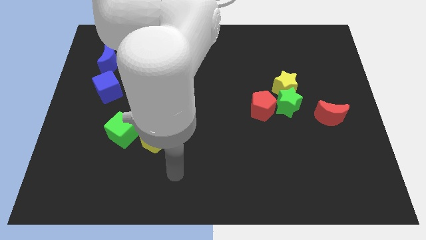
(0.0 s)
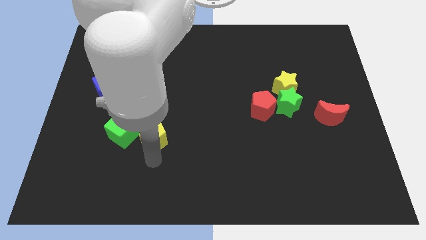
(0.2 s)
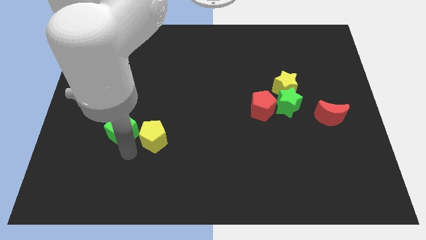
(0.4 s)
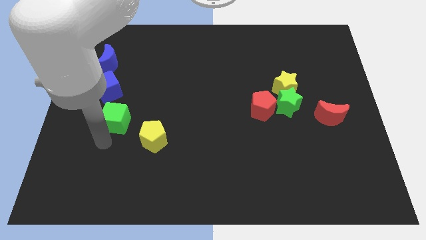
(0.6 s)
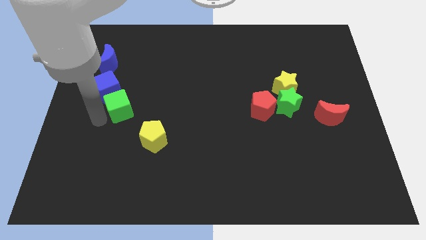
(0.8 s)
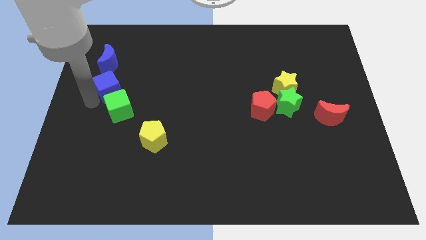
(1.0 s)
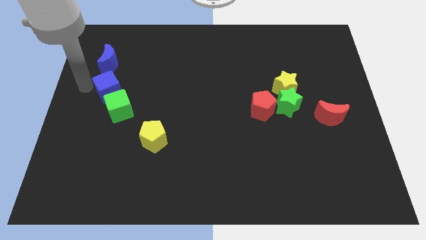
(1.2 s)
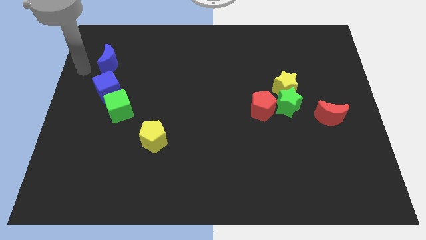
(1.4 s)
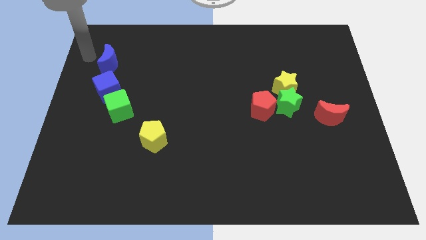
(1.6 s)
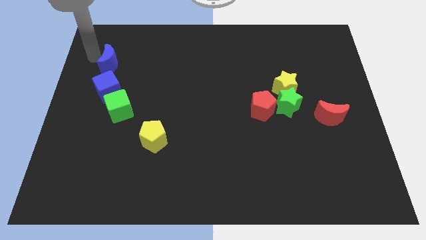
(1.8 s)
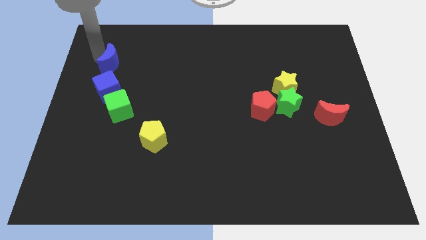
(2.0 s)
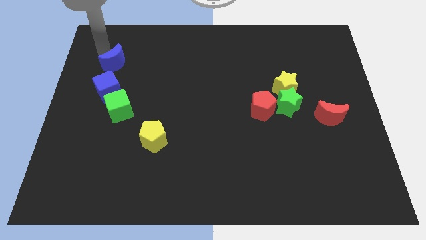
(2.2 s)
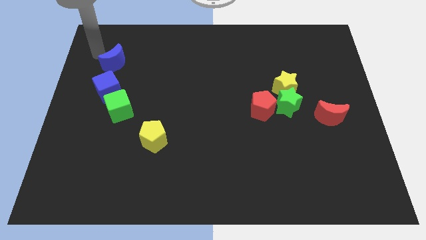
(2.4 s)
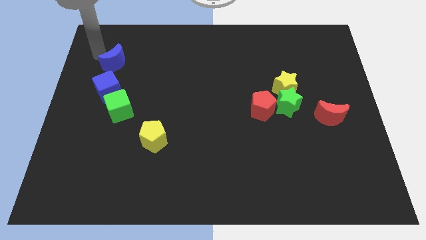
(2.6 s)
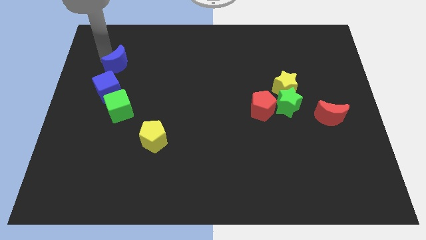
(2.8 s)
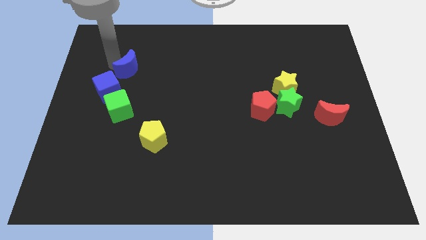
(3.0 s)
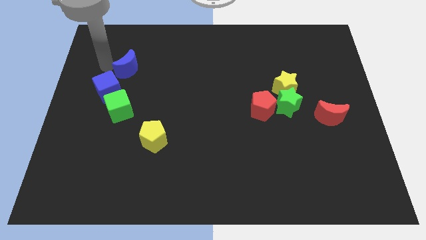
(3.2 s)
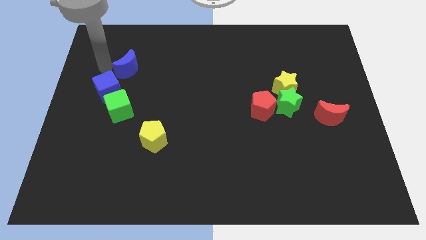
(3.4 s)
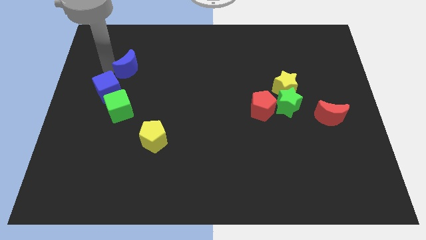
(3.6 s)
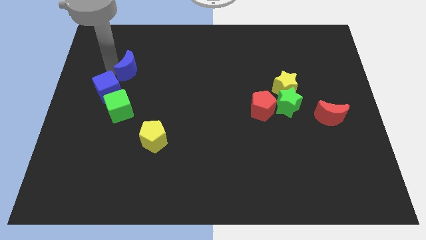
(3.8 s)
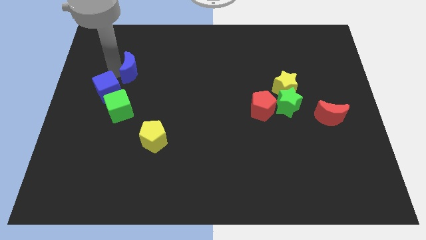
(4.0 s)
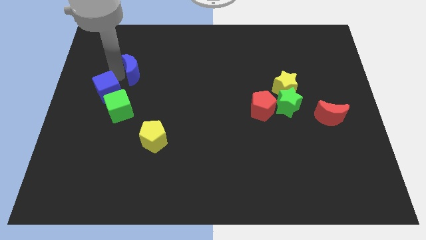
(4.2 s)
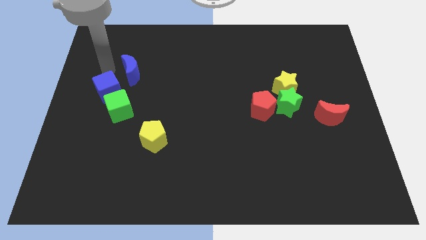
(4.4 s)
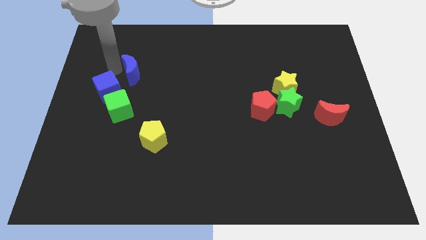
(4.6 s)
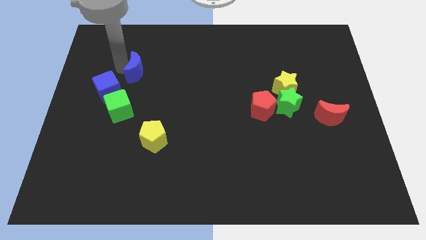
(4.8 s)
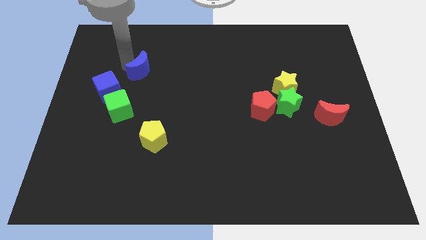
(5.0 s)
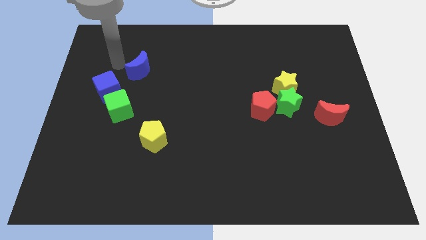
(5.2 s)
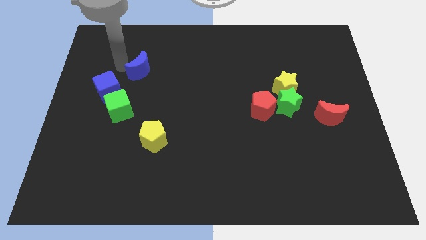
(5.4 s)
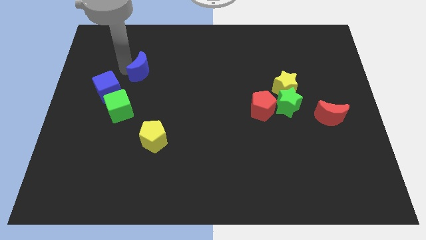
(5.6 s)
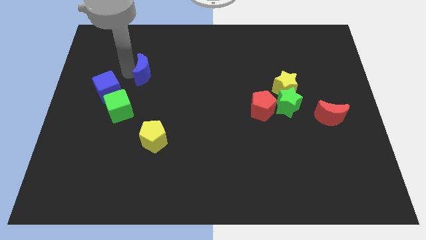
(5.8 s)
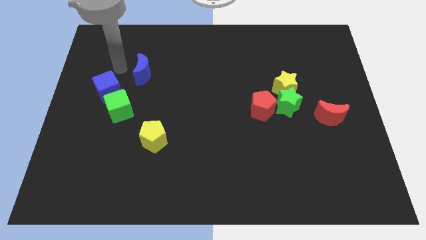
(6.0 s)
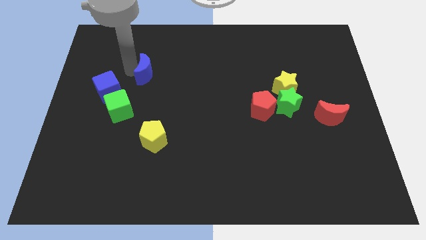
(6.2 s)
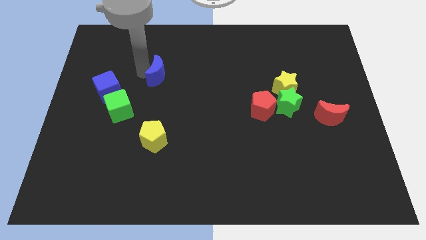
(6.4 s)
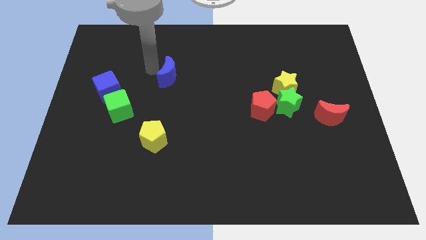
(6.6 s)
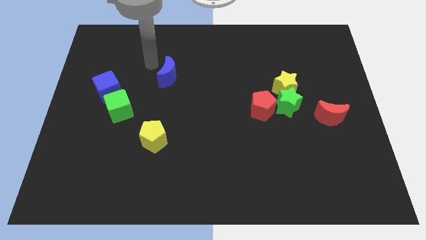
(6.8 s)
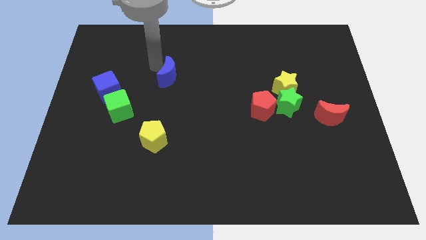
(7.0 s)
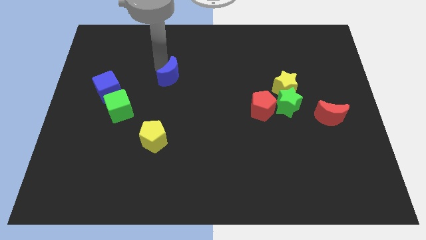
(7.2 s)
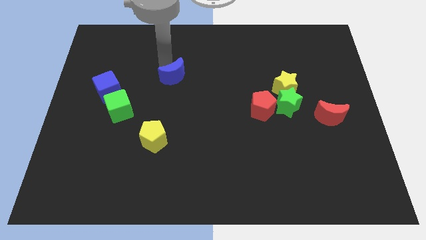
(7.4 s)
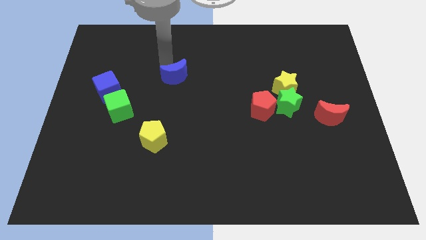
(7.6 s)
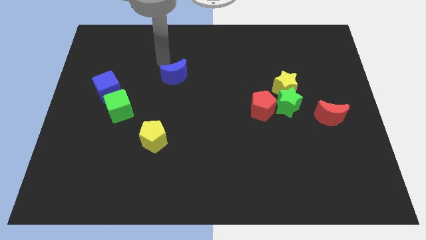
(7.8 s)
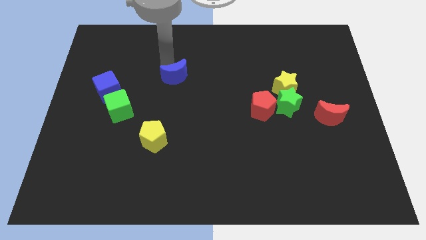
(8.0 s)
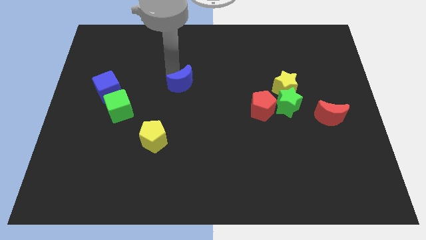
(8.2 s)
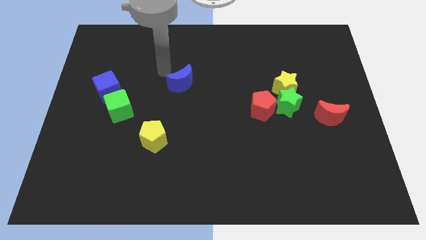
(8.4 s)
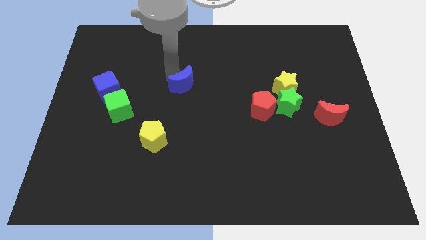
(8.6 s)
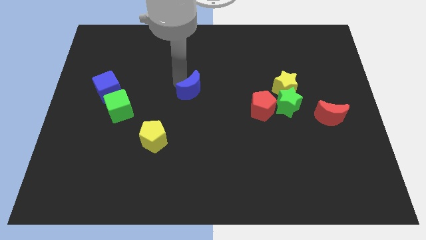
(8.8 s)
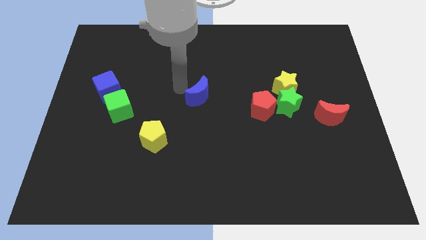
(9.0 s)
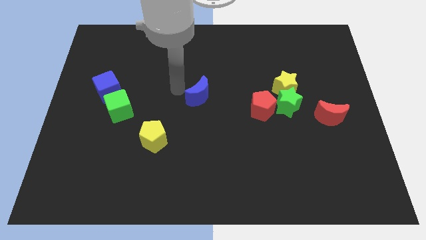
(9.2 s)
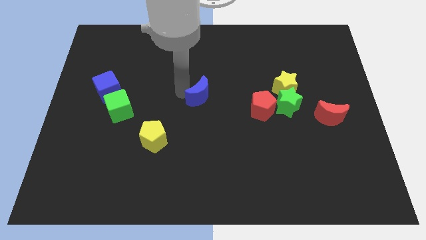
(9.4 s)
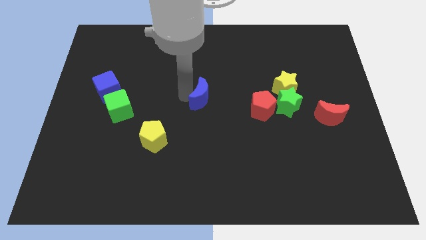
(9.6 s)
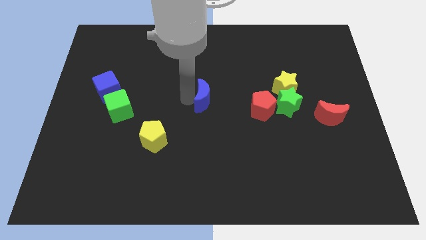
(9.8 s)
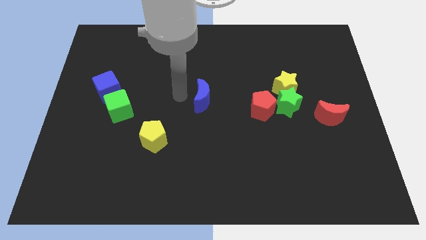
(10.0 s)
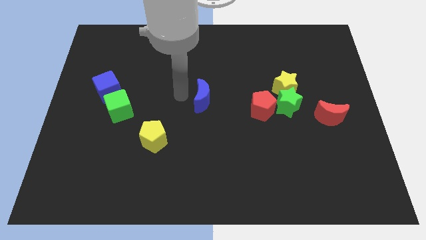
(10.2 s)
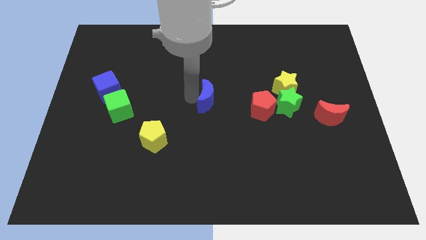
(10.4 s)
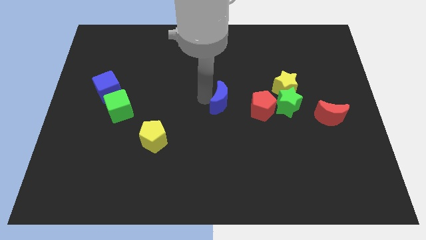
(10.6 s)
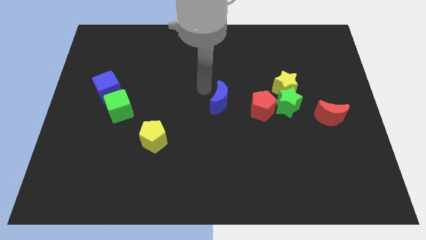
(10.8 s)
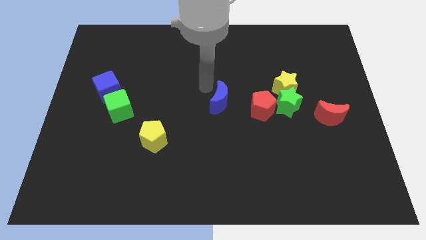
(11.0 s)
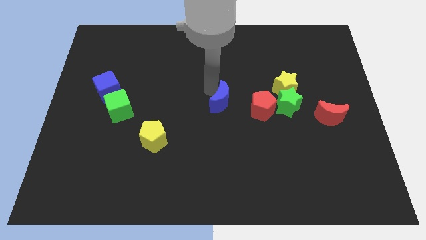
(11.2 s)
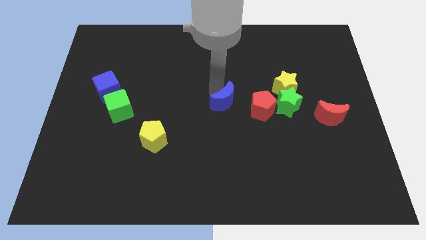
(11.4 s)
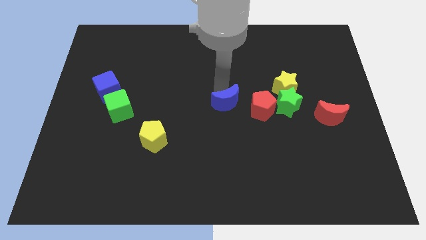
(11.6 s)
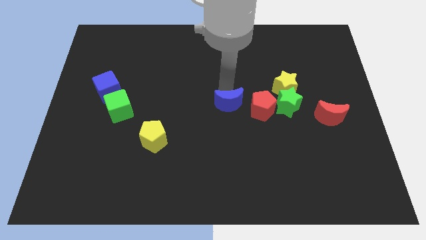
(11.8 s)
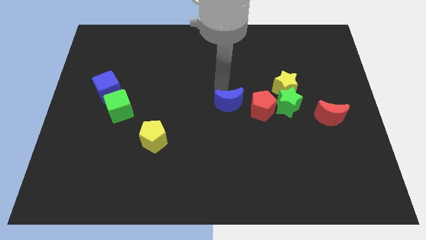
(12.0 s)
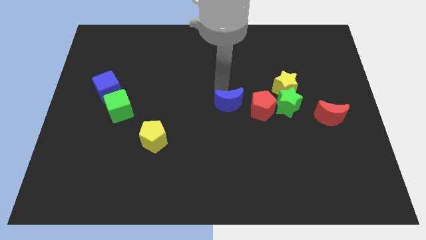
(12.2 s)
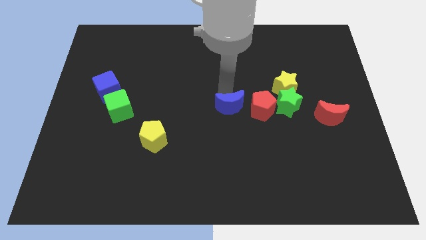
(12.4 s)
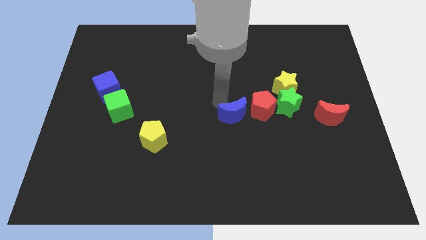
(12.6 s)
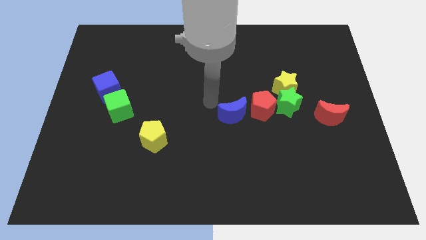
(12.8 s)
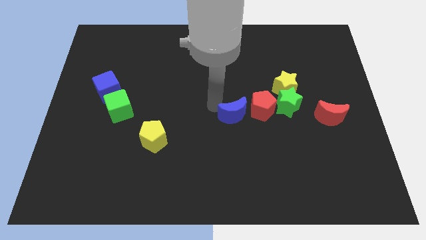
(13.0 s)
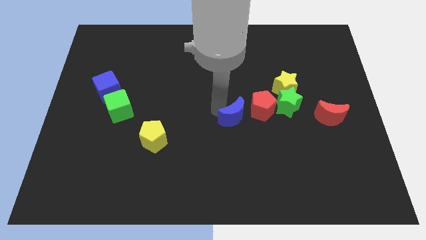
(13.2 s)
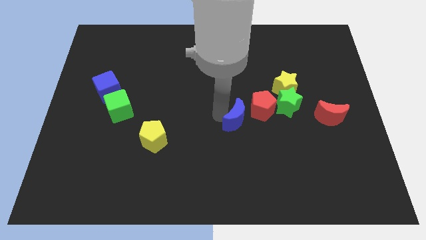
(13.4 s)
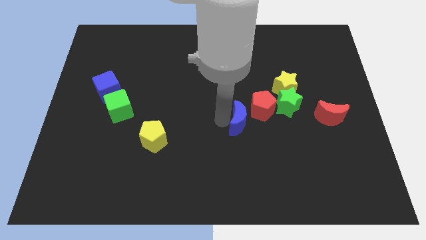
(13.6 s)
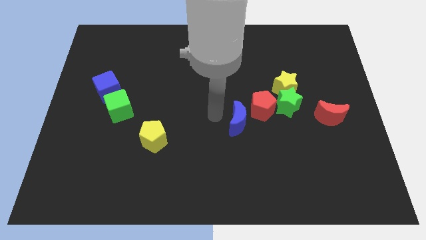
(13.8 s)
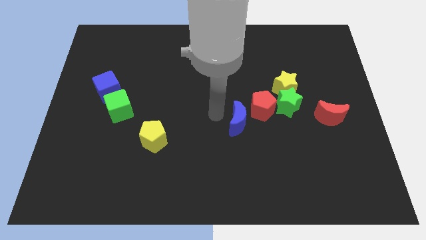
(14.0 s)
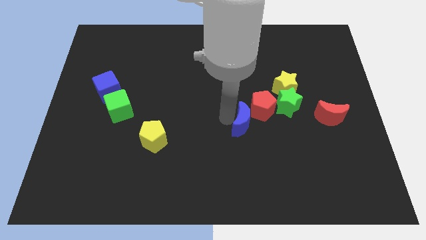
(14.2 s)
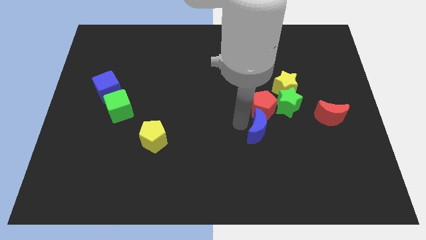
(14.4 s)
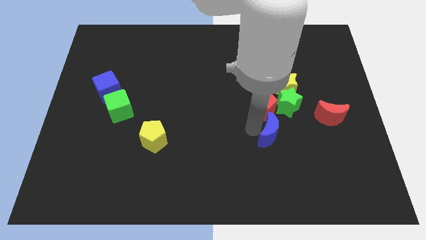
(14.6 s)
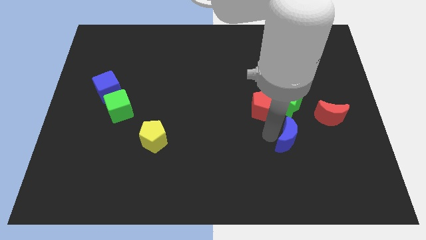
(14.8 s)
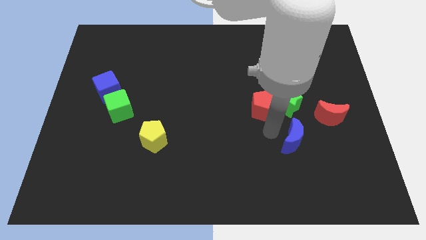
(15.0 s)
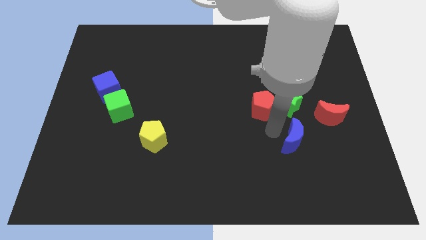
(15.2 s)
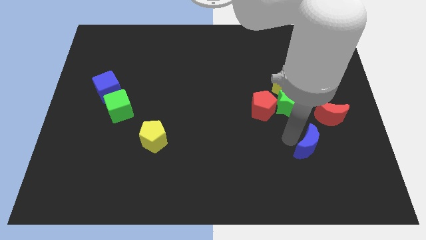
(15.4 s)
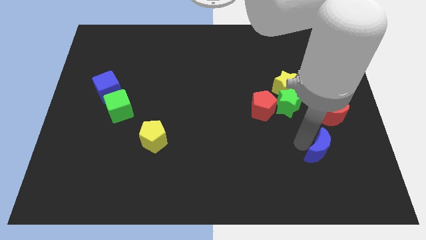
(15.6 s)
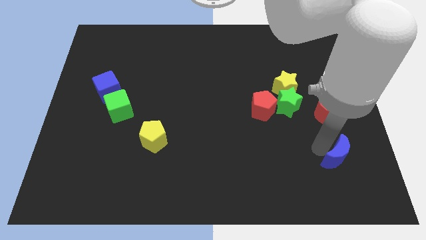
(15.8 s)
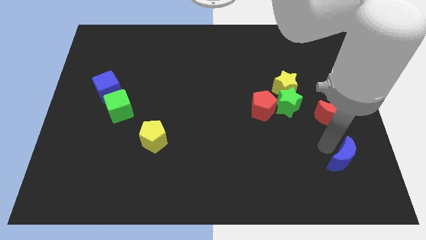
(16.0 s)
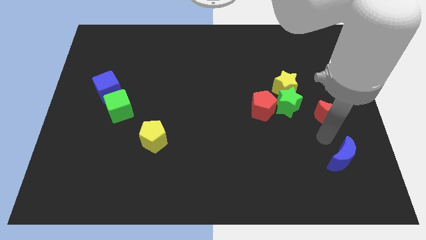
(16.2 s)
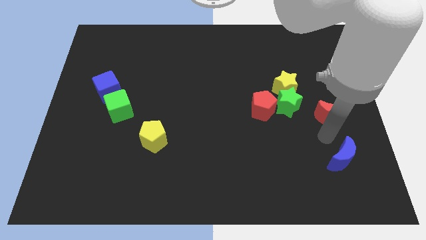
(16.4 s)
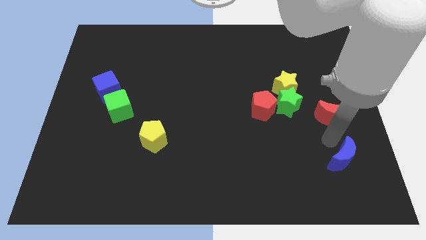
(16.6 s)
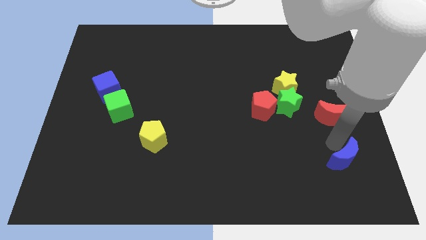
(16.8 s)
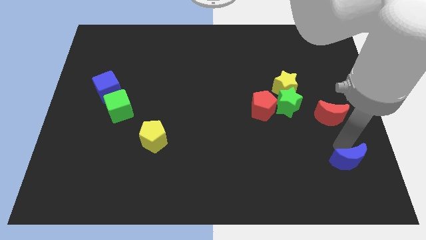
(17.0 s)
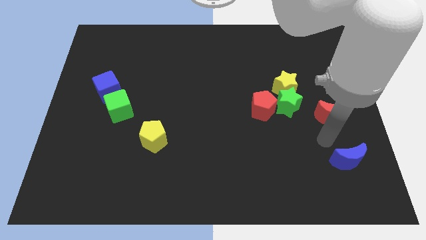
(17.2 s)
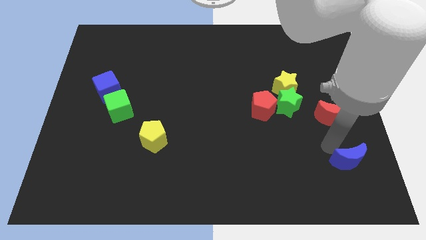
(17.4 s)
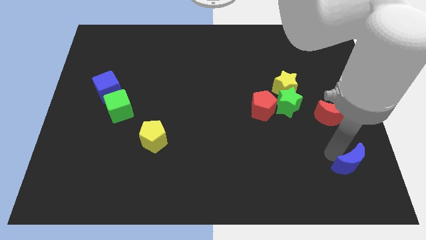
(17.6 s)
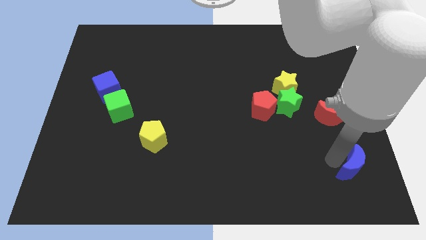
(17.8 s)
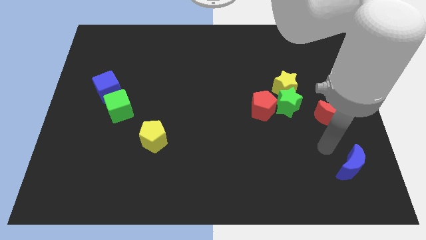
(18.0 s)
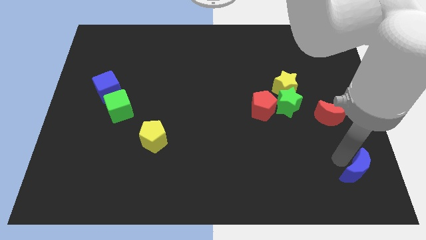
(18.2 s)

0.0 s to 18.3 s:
slide the blue moon to the bottom right of the board
